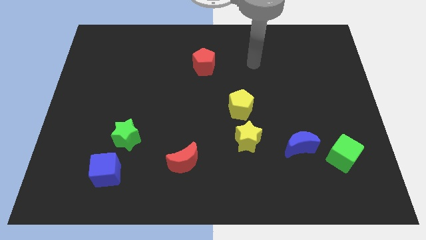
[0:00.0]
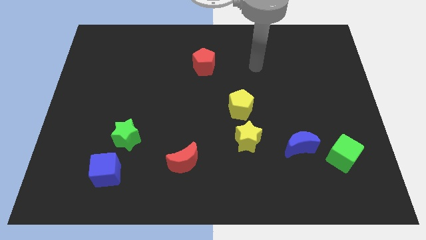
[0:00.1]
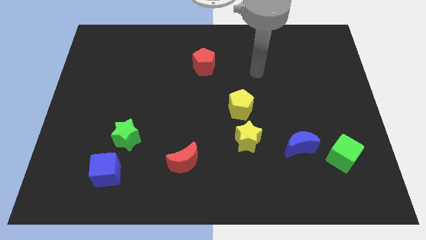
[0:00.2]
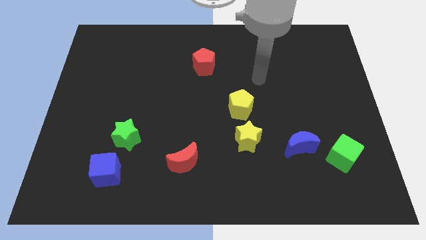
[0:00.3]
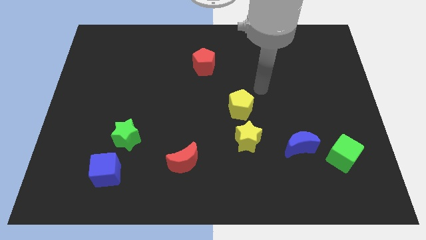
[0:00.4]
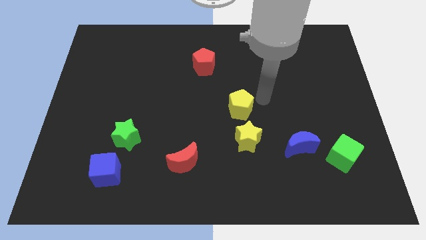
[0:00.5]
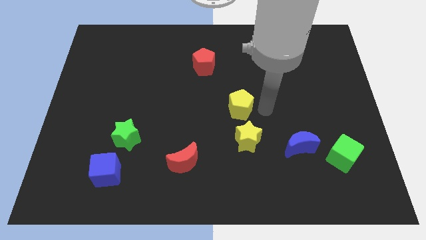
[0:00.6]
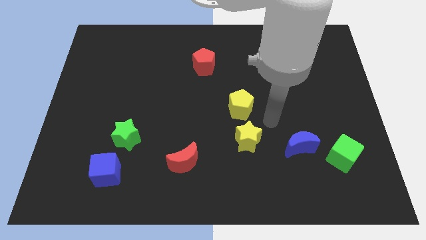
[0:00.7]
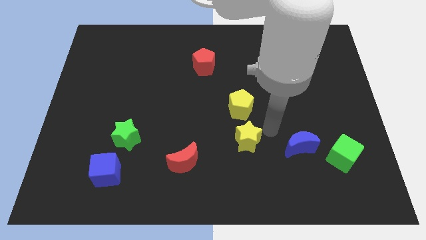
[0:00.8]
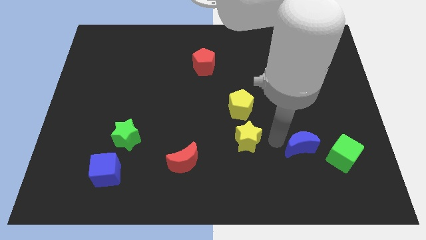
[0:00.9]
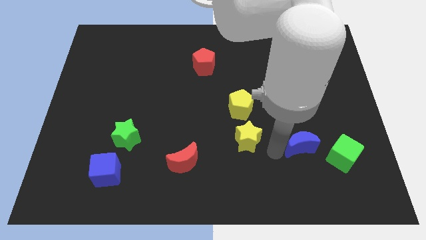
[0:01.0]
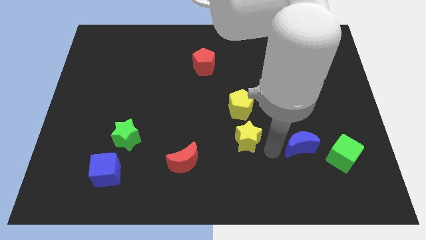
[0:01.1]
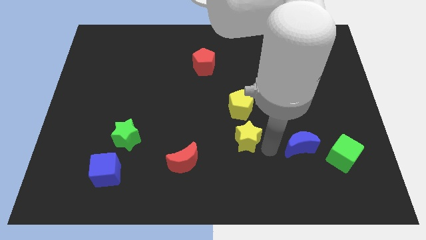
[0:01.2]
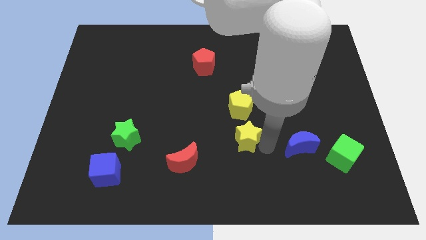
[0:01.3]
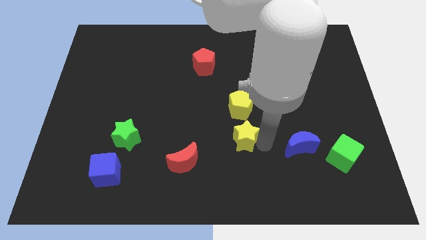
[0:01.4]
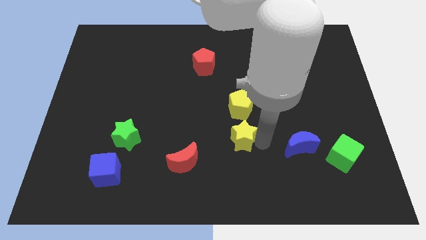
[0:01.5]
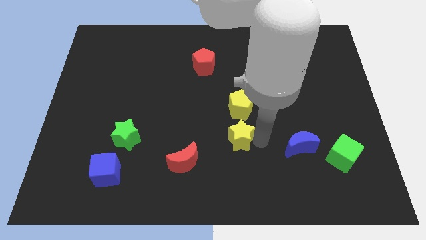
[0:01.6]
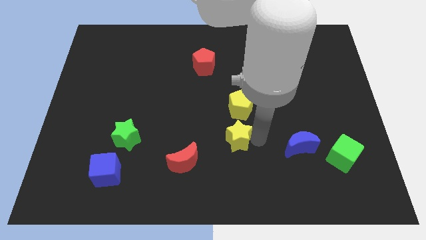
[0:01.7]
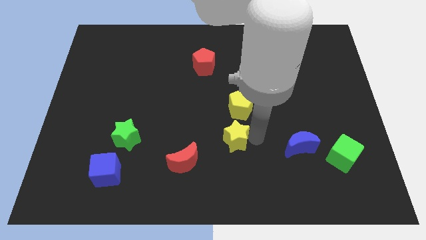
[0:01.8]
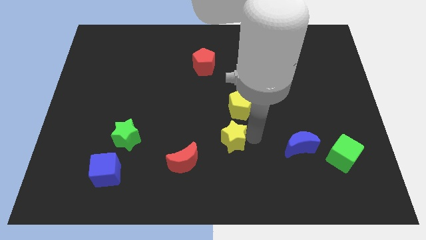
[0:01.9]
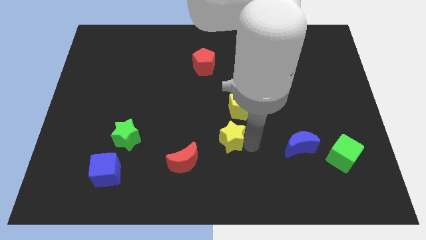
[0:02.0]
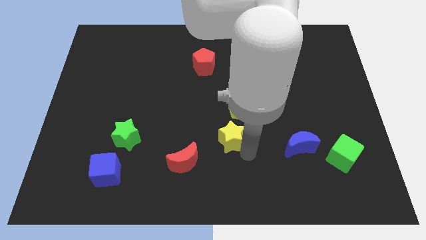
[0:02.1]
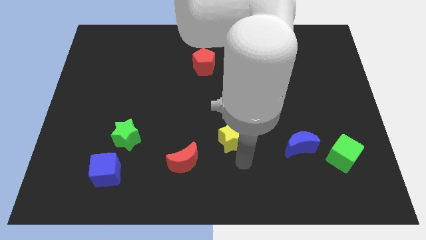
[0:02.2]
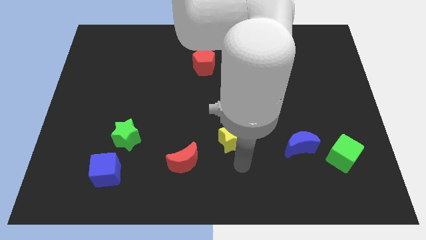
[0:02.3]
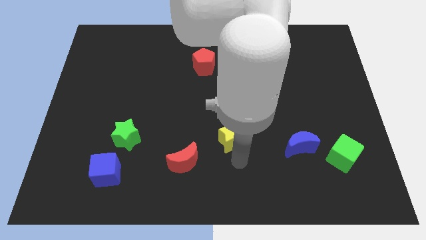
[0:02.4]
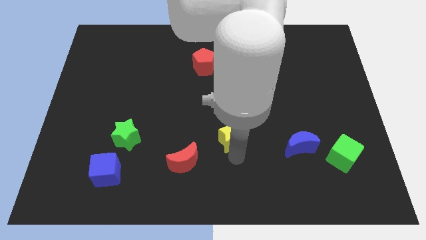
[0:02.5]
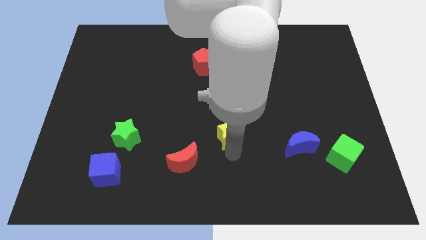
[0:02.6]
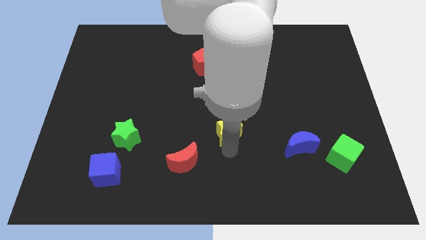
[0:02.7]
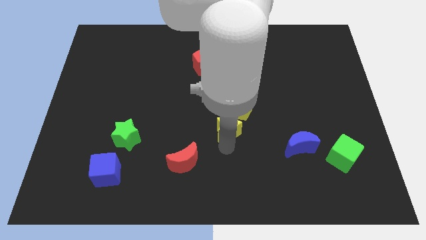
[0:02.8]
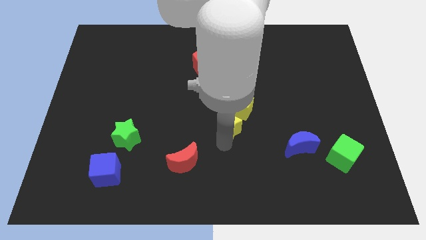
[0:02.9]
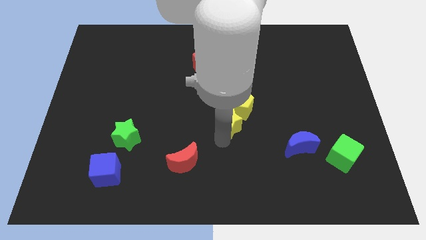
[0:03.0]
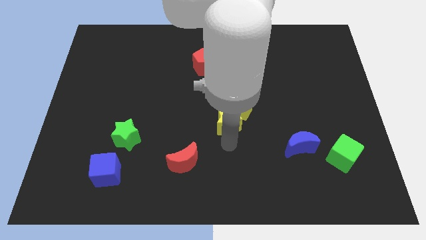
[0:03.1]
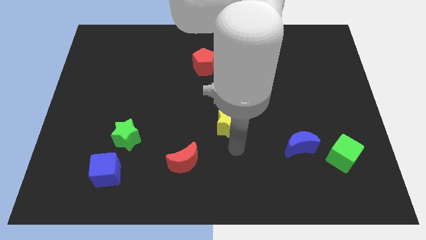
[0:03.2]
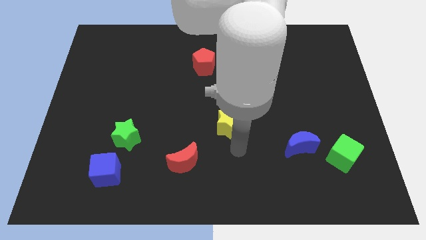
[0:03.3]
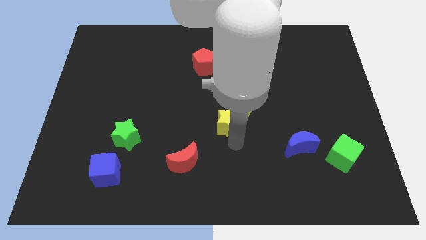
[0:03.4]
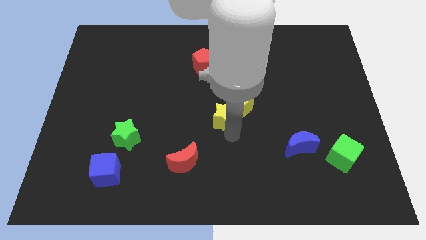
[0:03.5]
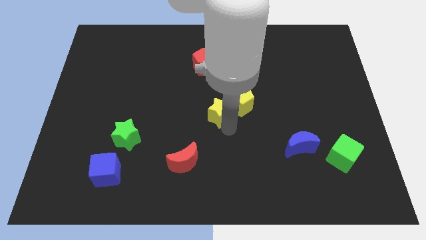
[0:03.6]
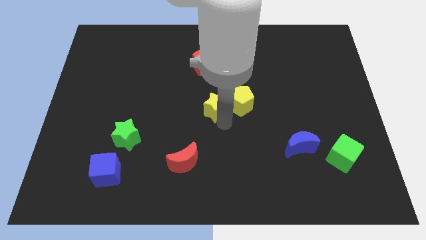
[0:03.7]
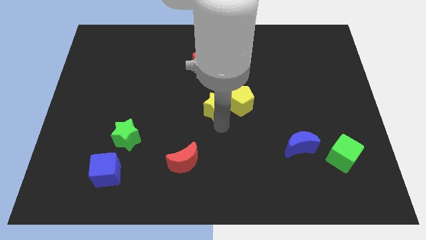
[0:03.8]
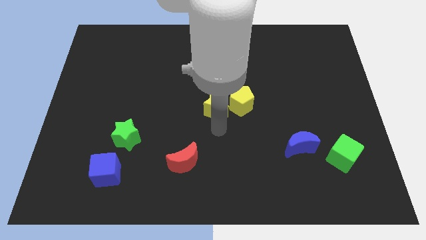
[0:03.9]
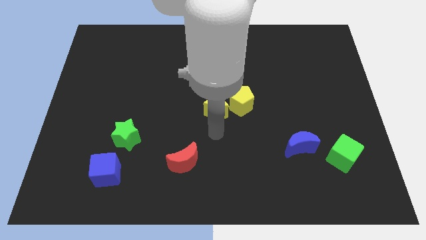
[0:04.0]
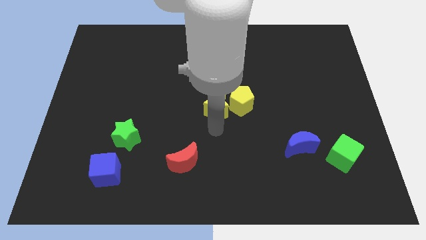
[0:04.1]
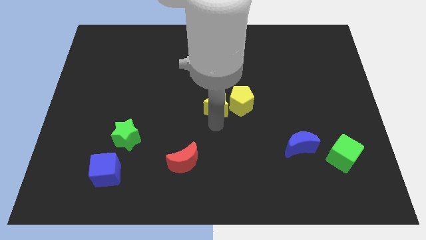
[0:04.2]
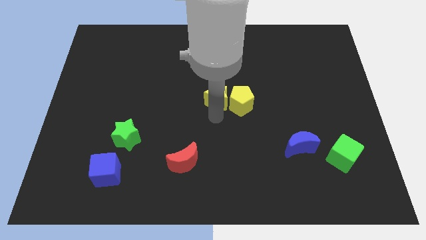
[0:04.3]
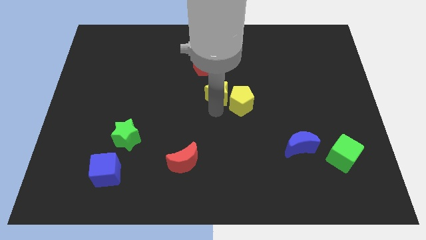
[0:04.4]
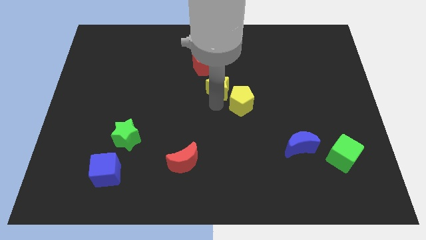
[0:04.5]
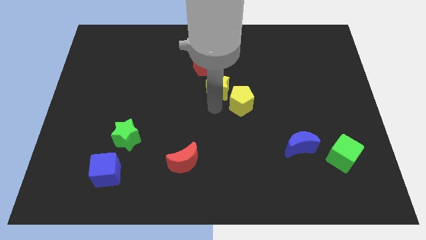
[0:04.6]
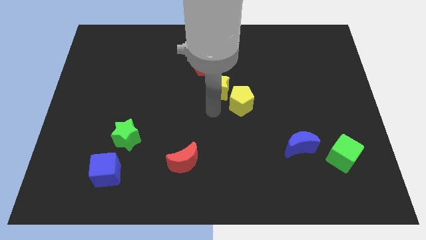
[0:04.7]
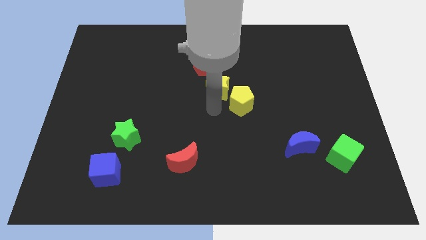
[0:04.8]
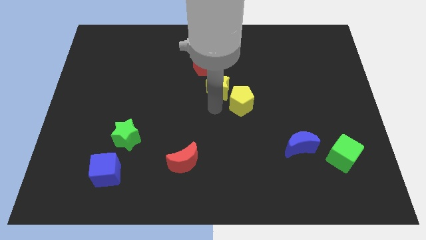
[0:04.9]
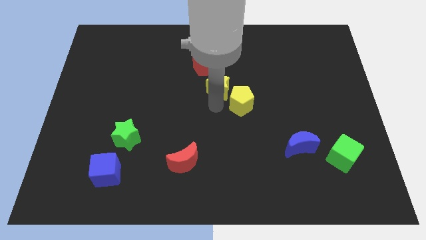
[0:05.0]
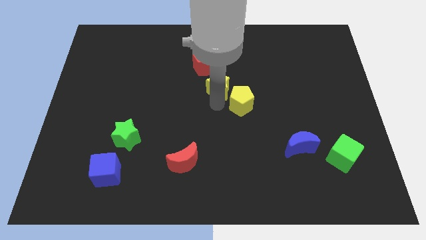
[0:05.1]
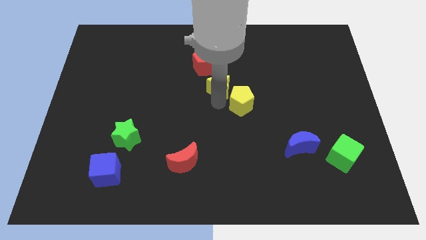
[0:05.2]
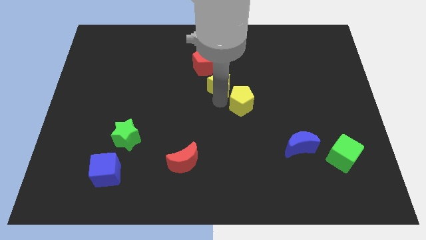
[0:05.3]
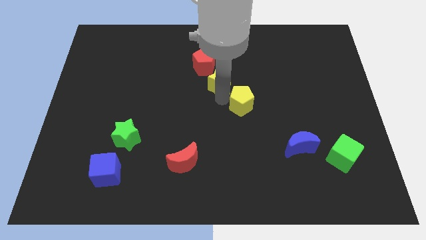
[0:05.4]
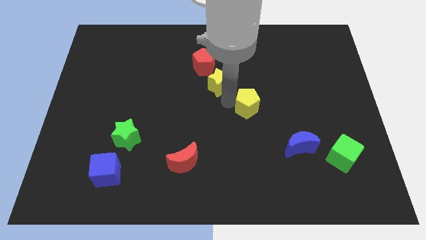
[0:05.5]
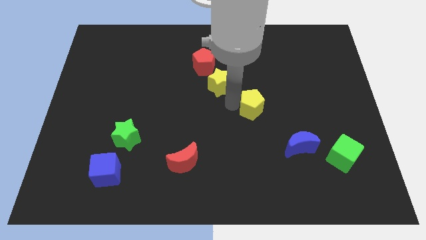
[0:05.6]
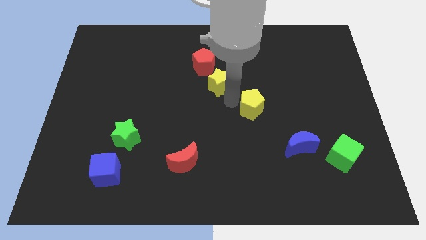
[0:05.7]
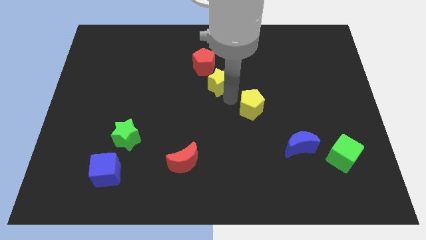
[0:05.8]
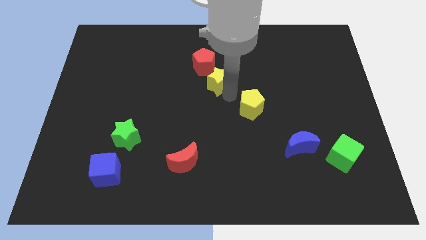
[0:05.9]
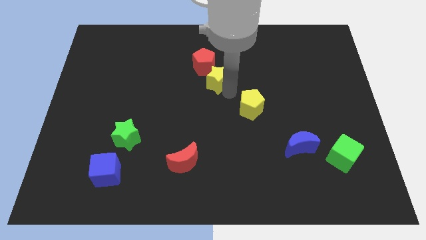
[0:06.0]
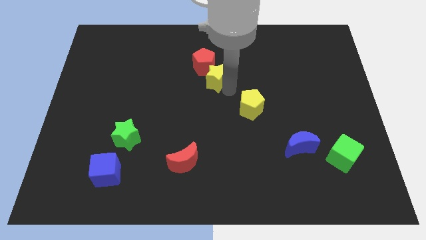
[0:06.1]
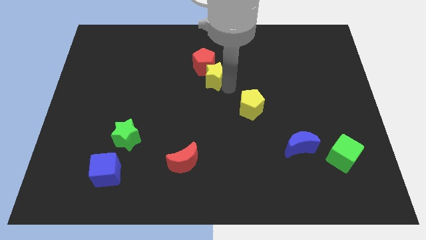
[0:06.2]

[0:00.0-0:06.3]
slide the yellow star towards the red pentagon
